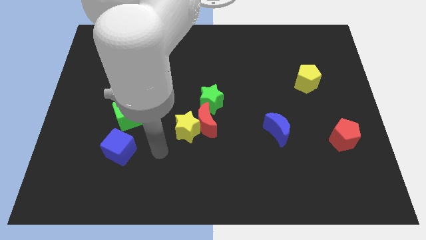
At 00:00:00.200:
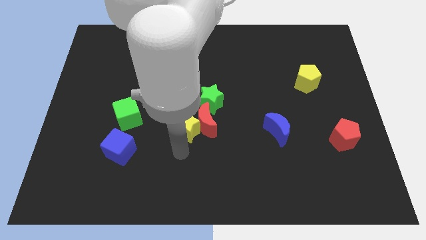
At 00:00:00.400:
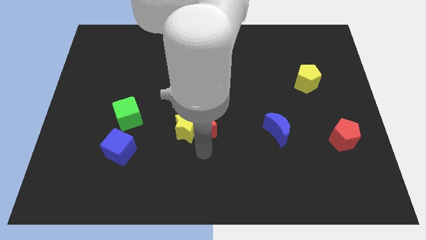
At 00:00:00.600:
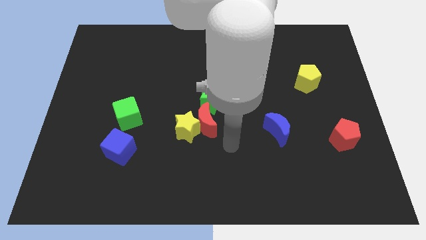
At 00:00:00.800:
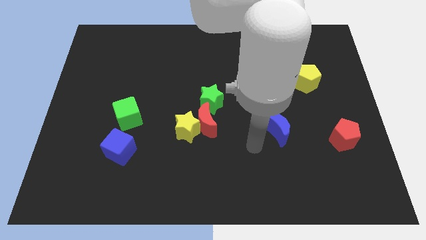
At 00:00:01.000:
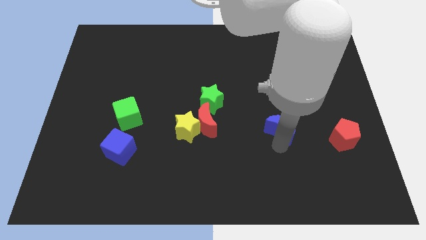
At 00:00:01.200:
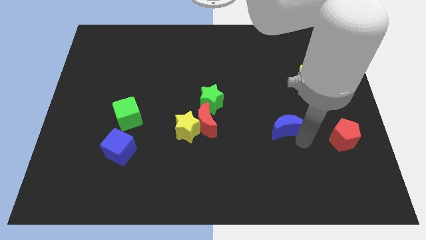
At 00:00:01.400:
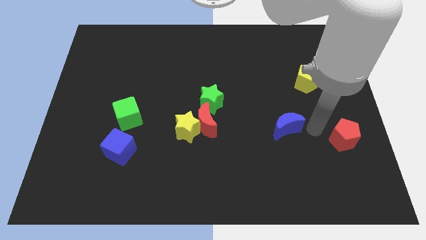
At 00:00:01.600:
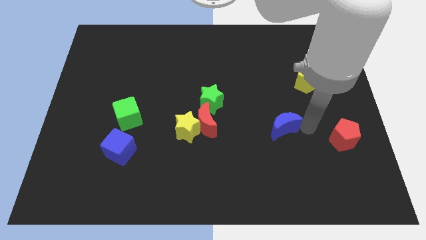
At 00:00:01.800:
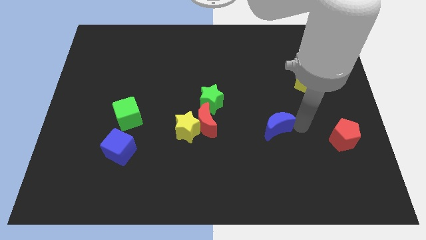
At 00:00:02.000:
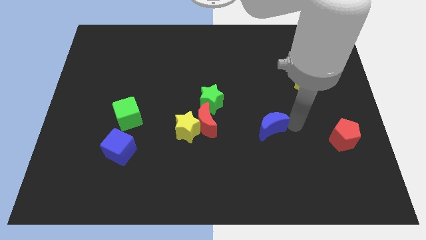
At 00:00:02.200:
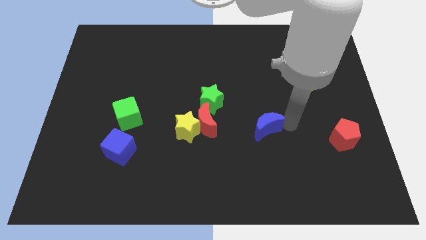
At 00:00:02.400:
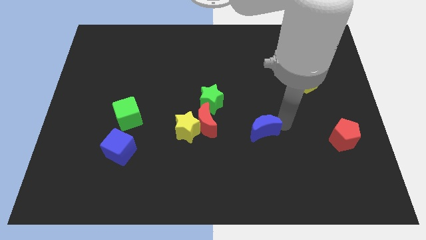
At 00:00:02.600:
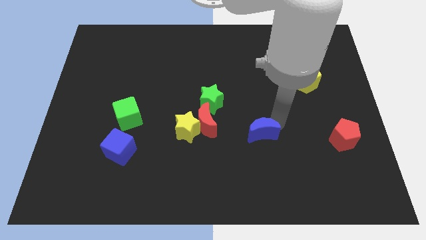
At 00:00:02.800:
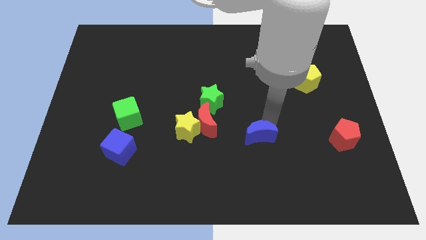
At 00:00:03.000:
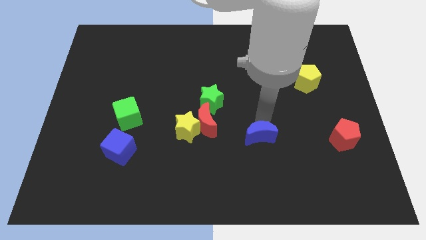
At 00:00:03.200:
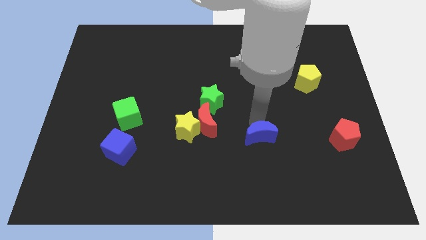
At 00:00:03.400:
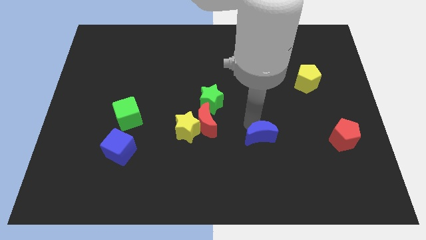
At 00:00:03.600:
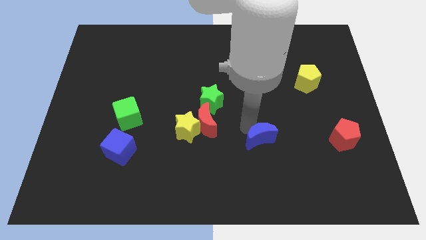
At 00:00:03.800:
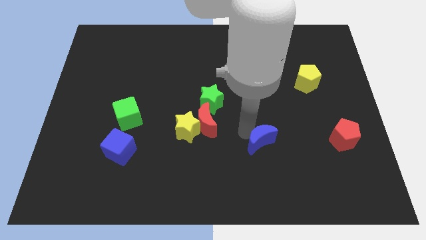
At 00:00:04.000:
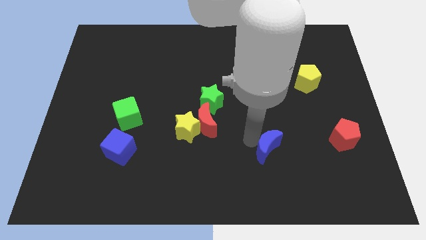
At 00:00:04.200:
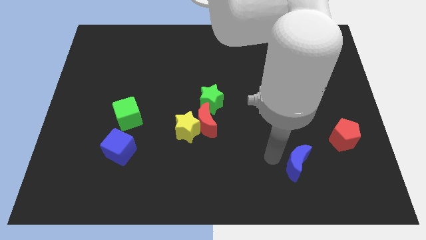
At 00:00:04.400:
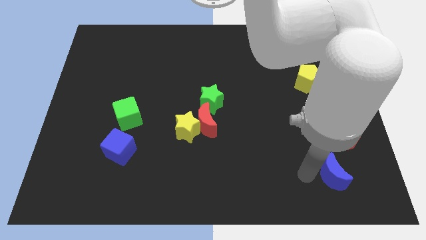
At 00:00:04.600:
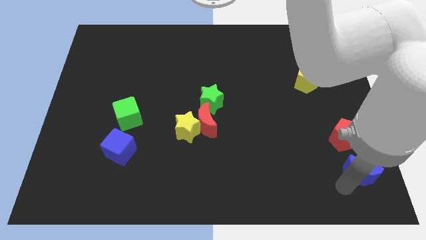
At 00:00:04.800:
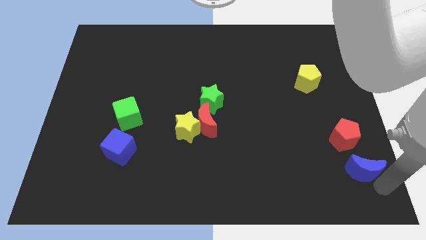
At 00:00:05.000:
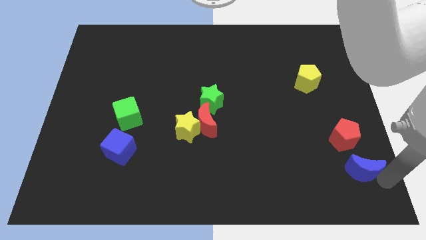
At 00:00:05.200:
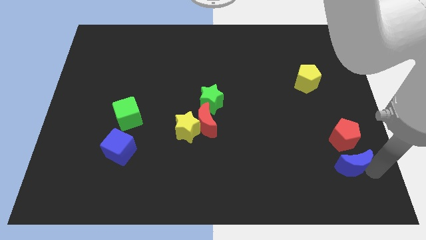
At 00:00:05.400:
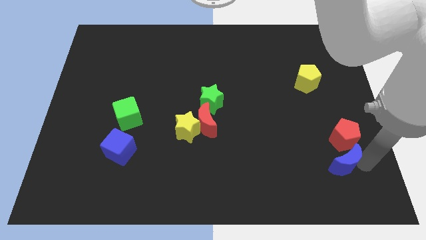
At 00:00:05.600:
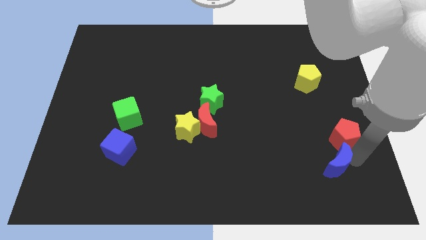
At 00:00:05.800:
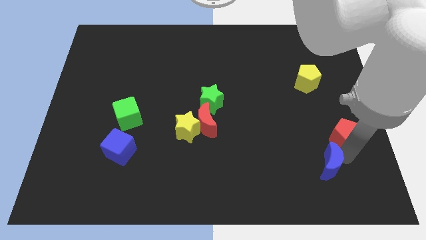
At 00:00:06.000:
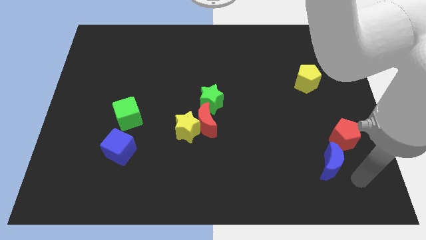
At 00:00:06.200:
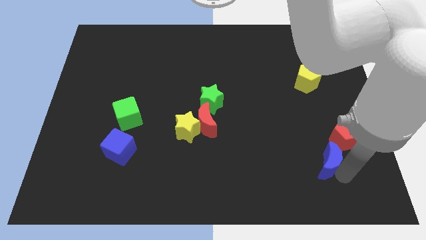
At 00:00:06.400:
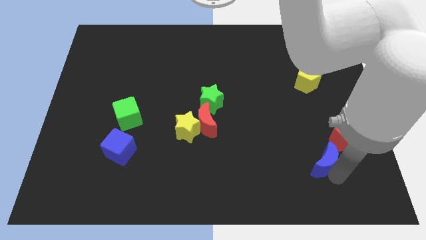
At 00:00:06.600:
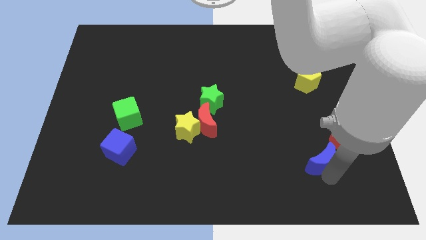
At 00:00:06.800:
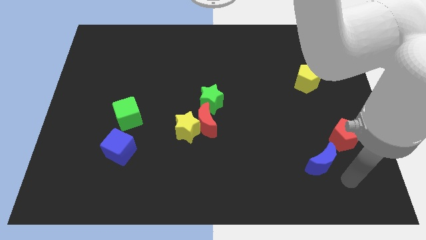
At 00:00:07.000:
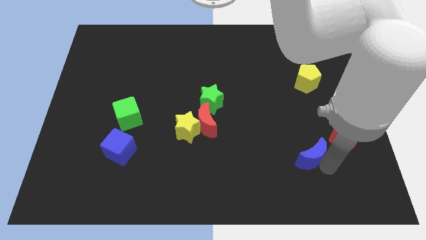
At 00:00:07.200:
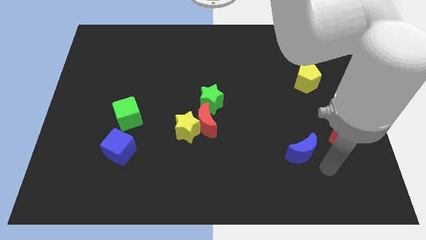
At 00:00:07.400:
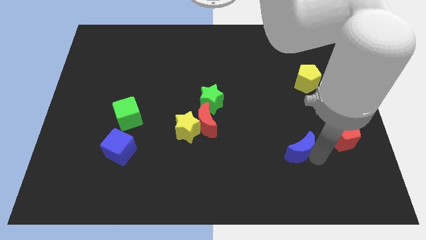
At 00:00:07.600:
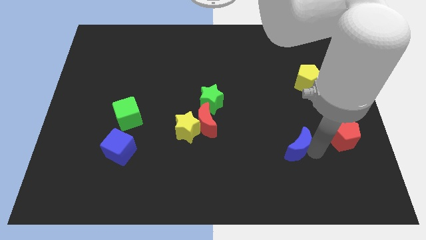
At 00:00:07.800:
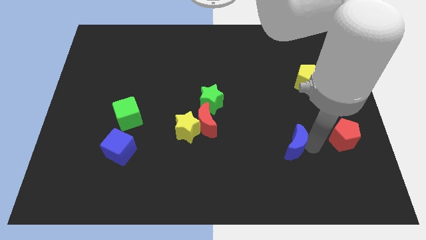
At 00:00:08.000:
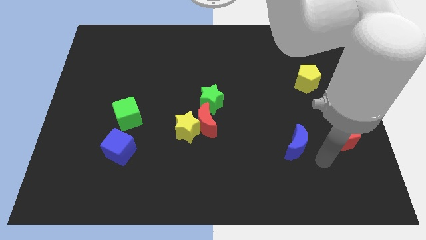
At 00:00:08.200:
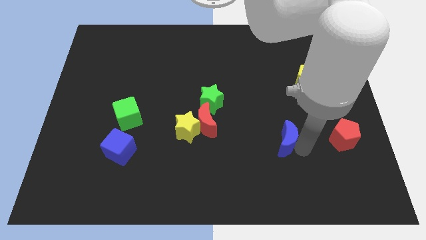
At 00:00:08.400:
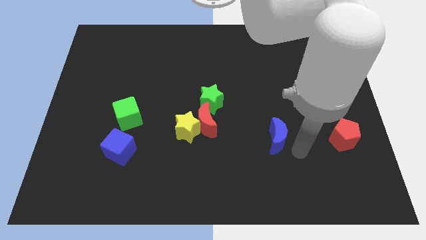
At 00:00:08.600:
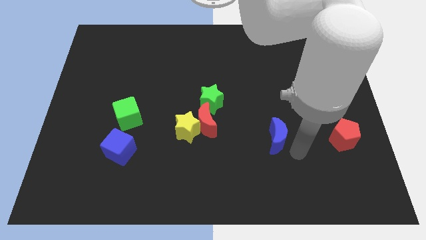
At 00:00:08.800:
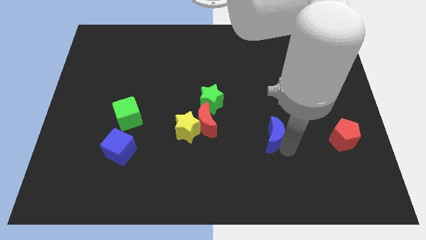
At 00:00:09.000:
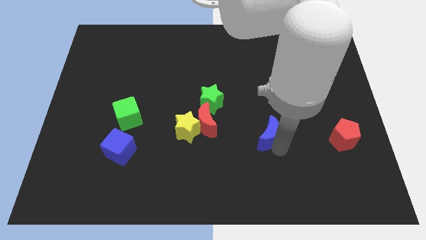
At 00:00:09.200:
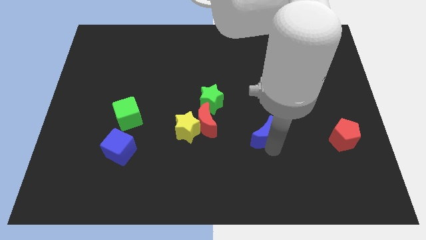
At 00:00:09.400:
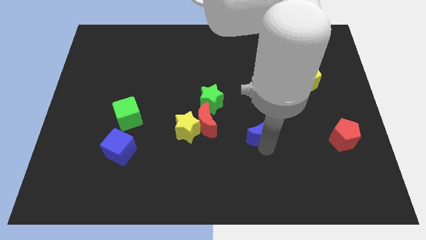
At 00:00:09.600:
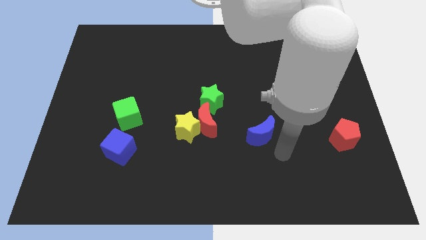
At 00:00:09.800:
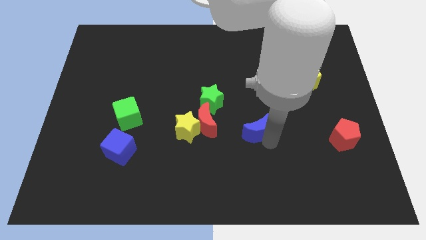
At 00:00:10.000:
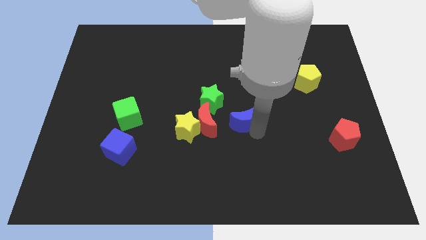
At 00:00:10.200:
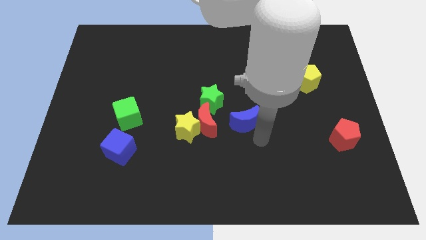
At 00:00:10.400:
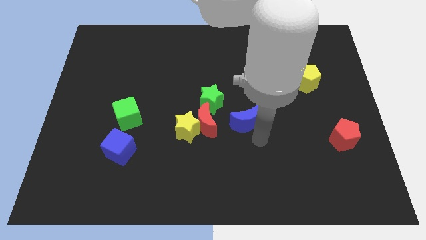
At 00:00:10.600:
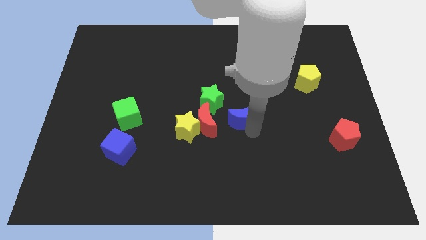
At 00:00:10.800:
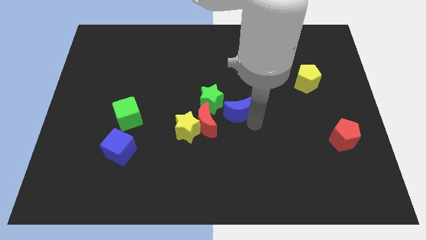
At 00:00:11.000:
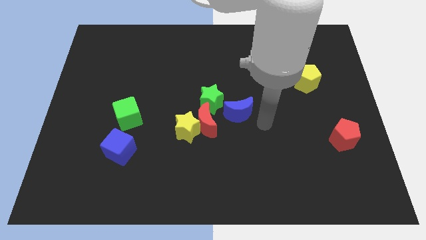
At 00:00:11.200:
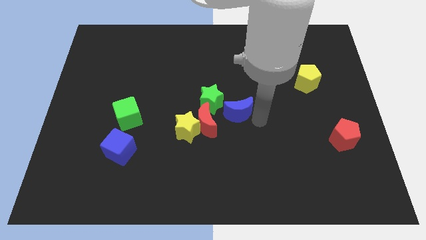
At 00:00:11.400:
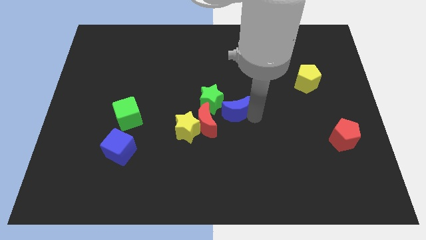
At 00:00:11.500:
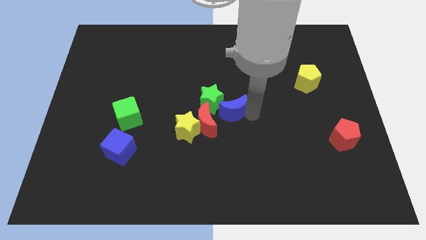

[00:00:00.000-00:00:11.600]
move the blue moon next to the green star

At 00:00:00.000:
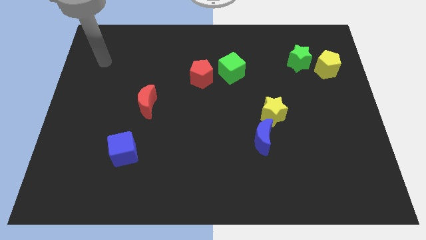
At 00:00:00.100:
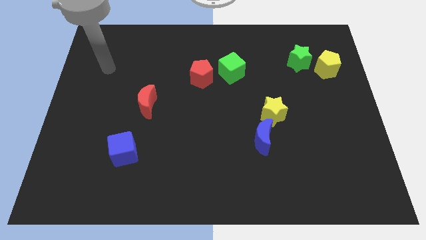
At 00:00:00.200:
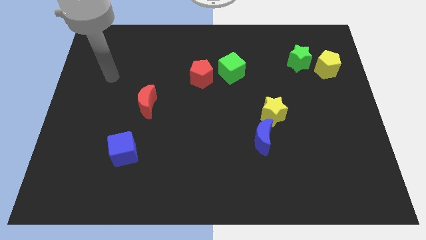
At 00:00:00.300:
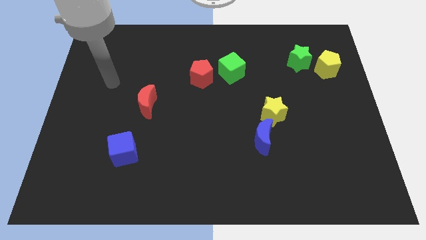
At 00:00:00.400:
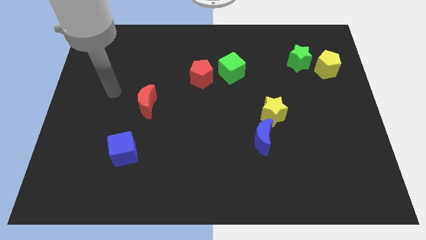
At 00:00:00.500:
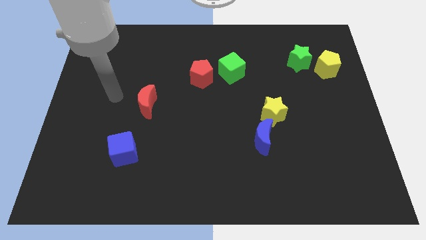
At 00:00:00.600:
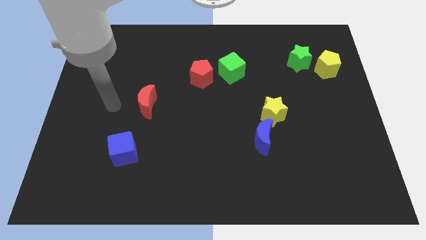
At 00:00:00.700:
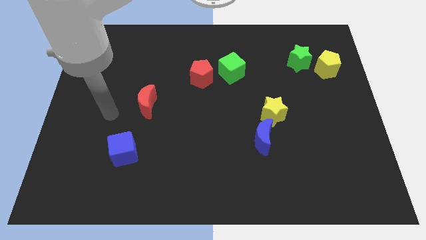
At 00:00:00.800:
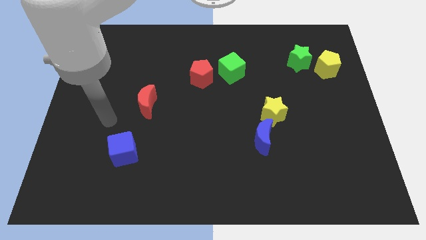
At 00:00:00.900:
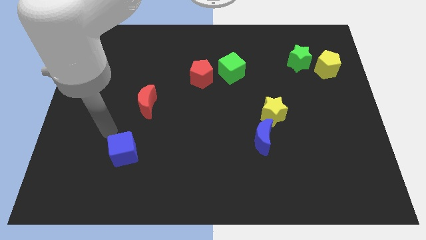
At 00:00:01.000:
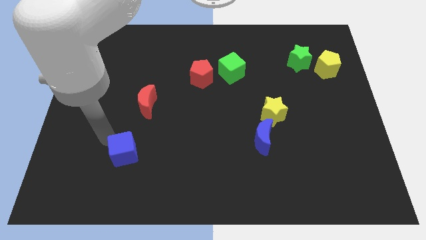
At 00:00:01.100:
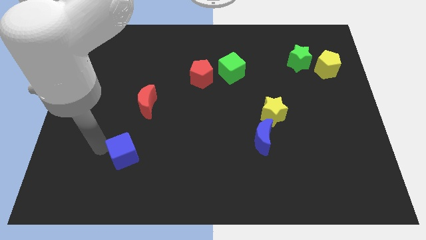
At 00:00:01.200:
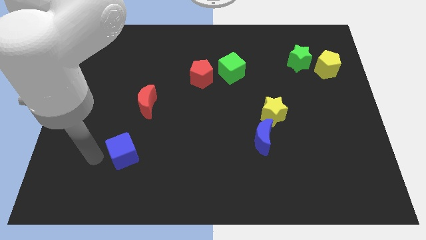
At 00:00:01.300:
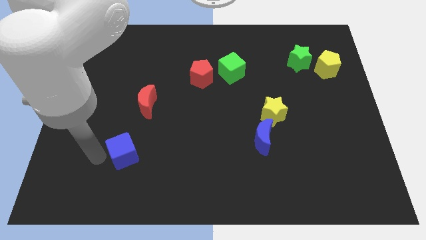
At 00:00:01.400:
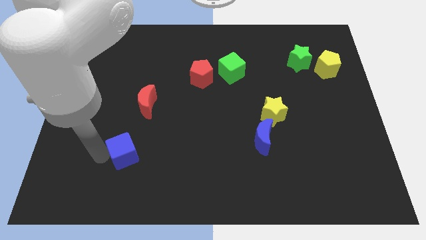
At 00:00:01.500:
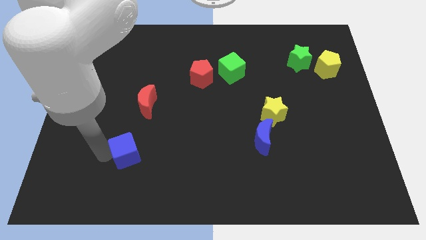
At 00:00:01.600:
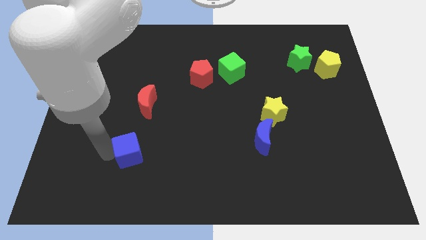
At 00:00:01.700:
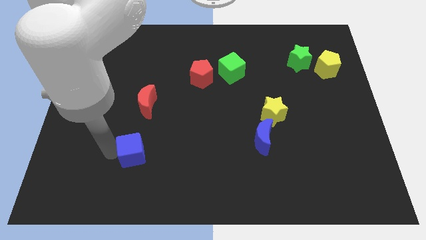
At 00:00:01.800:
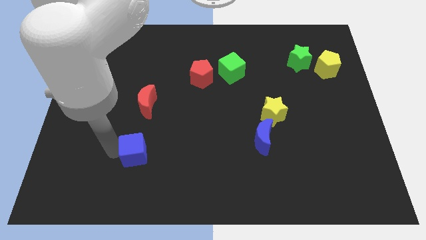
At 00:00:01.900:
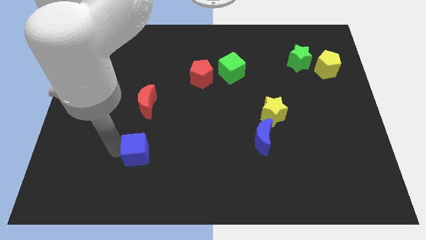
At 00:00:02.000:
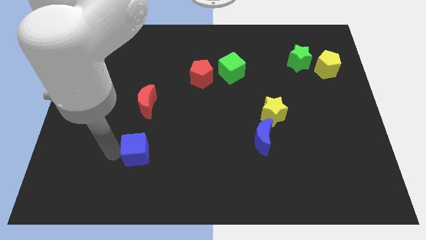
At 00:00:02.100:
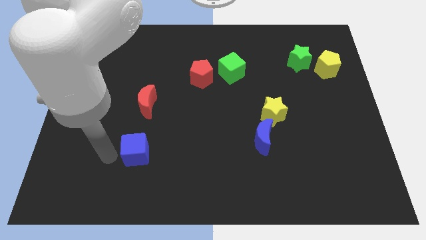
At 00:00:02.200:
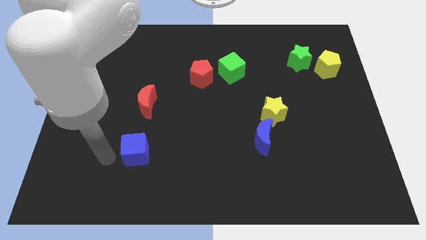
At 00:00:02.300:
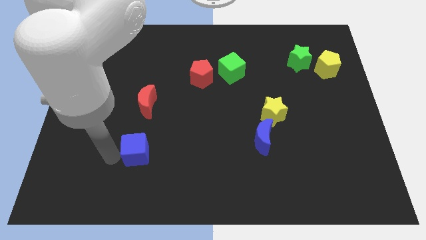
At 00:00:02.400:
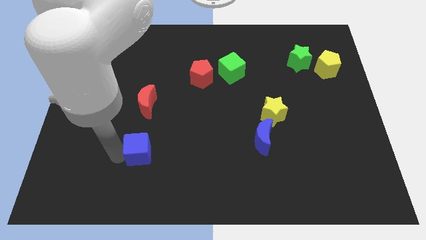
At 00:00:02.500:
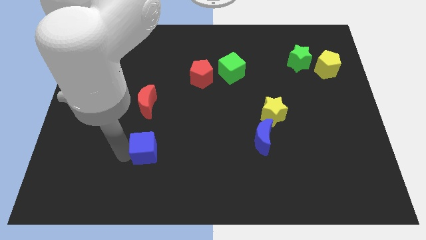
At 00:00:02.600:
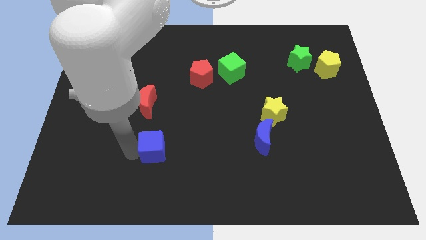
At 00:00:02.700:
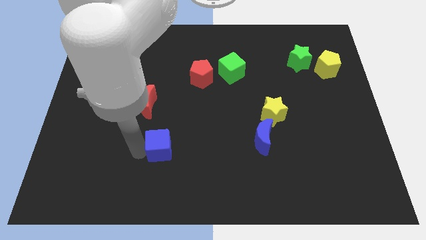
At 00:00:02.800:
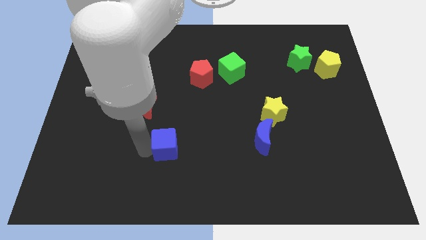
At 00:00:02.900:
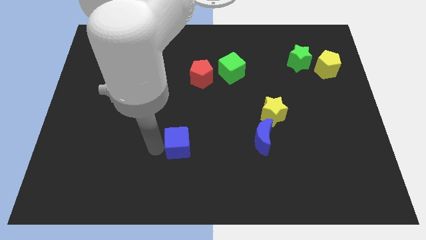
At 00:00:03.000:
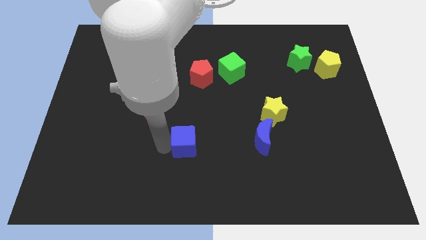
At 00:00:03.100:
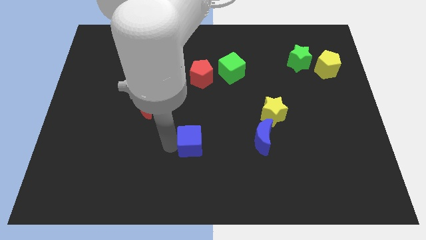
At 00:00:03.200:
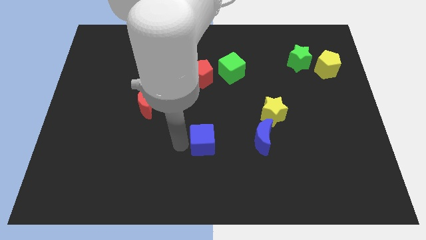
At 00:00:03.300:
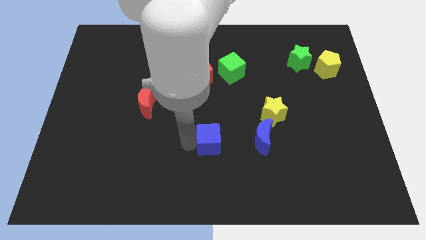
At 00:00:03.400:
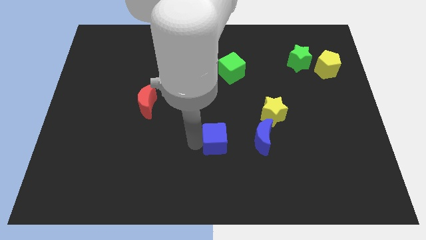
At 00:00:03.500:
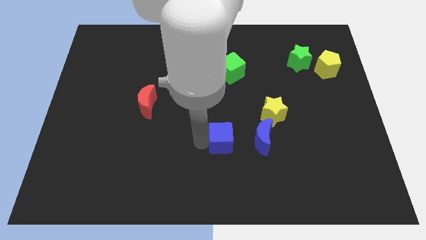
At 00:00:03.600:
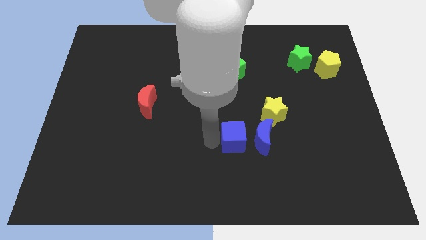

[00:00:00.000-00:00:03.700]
put the blue cube next to the blue moon
